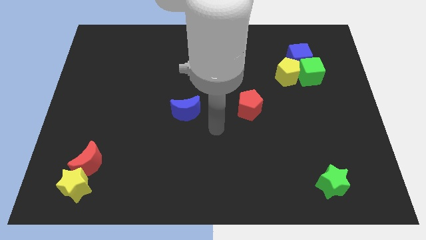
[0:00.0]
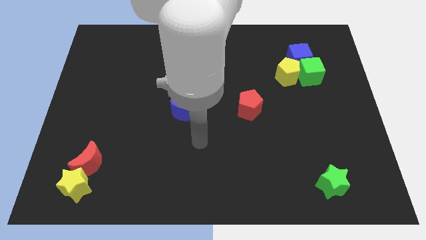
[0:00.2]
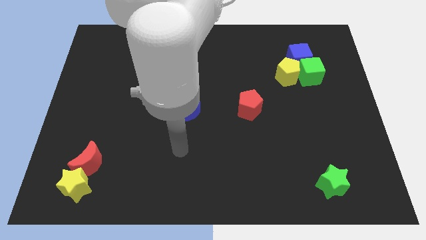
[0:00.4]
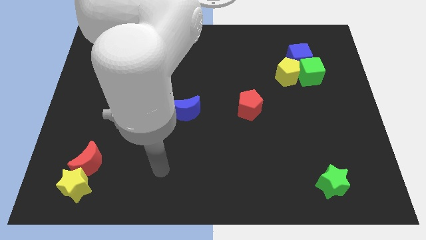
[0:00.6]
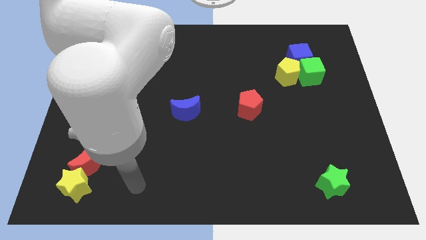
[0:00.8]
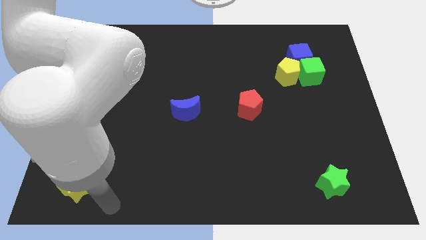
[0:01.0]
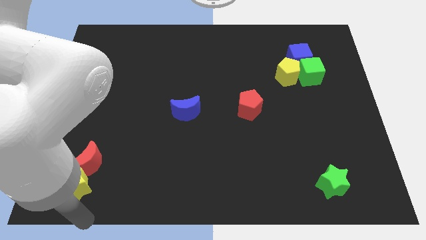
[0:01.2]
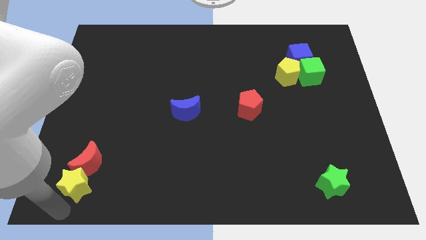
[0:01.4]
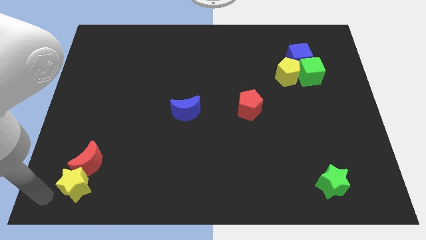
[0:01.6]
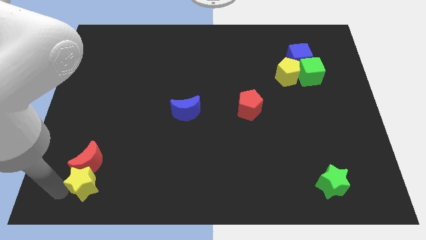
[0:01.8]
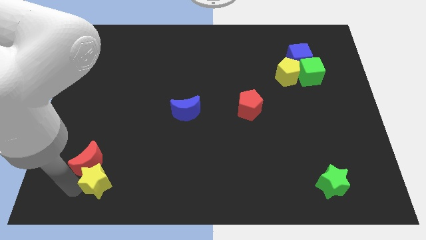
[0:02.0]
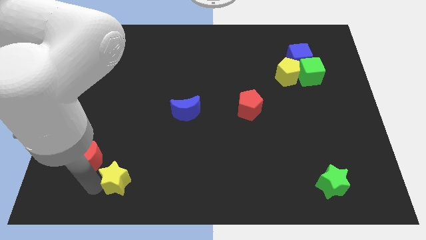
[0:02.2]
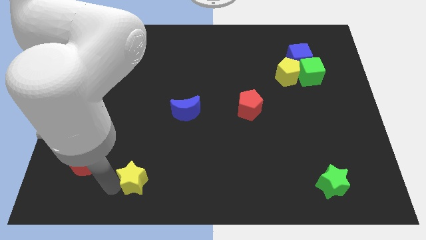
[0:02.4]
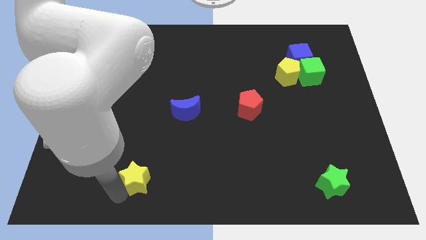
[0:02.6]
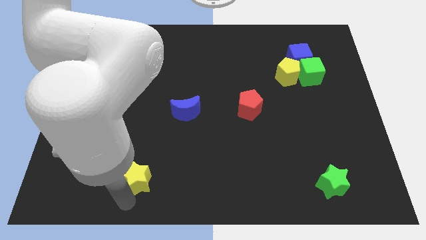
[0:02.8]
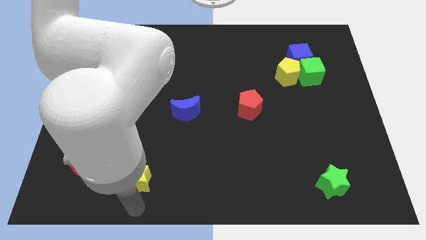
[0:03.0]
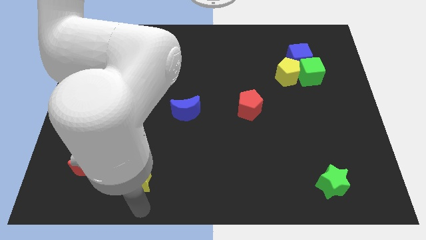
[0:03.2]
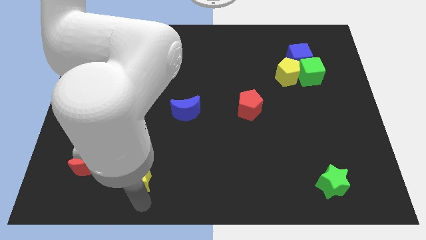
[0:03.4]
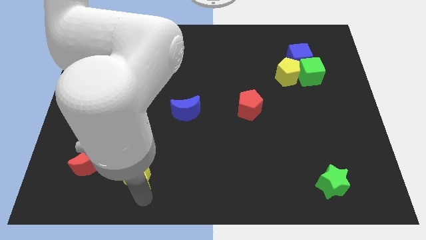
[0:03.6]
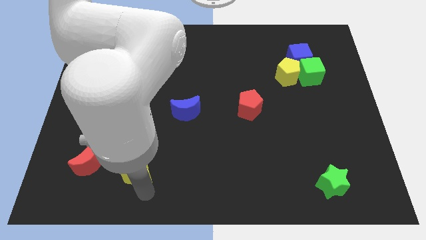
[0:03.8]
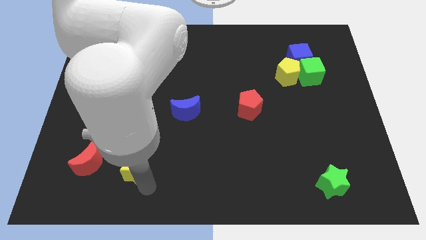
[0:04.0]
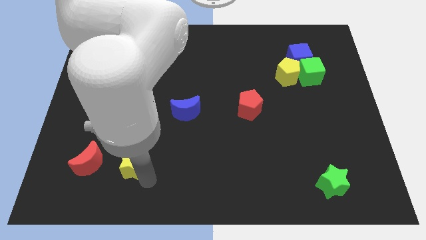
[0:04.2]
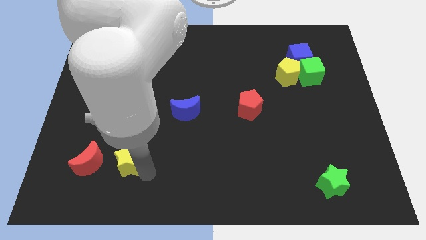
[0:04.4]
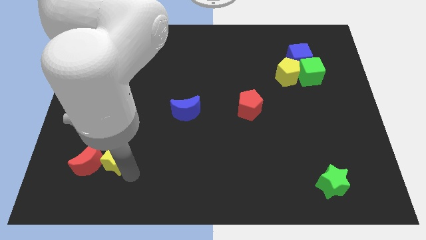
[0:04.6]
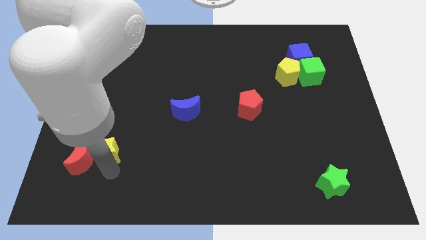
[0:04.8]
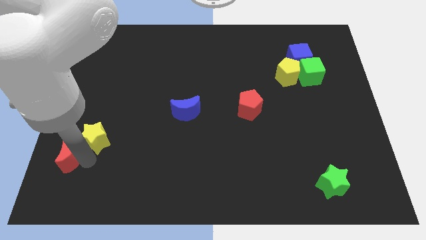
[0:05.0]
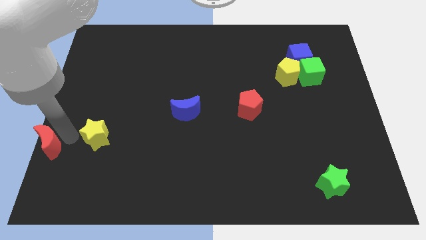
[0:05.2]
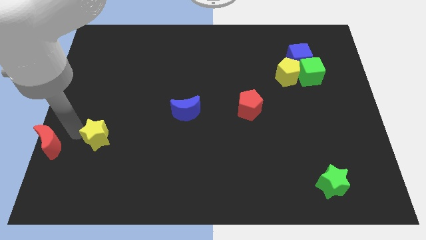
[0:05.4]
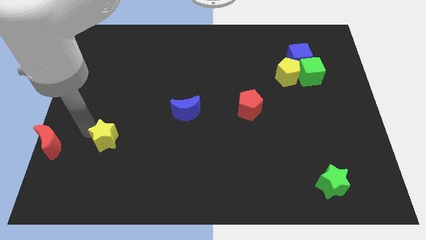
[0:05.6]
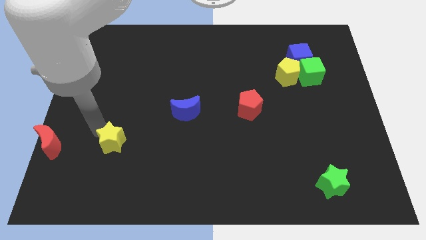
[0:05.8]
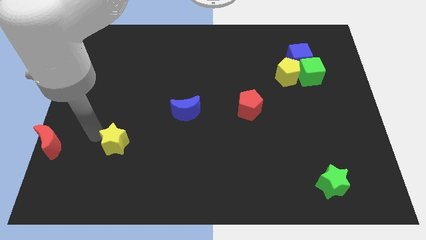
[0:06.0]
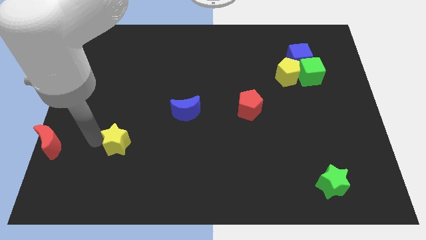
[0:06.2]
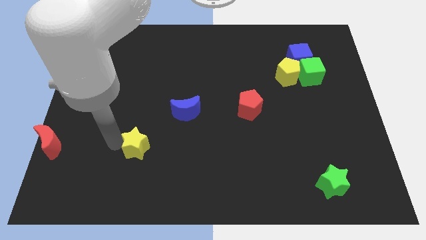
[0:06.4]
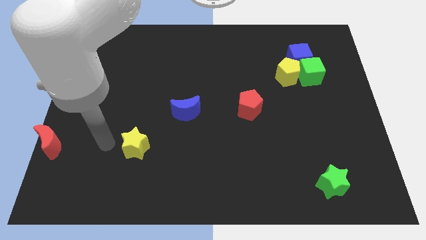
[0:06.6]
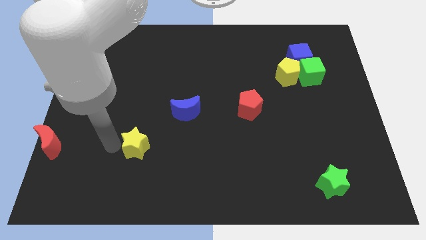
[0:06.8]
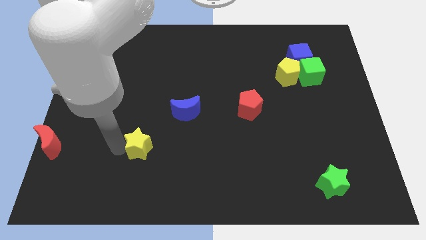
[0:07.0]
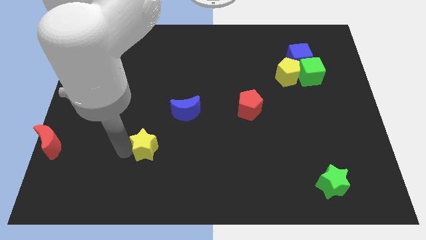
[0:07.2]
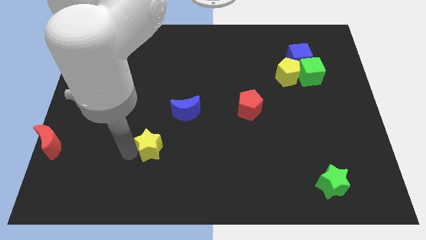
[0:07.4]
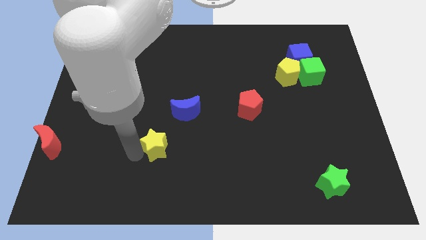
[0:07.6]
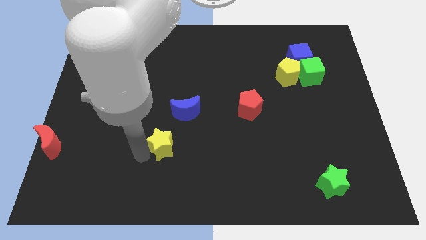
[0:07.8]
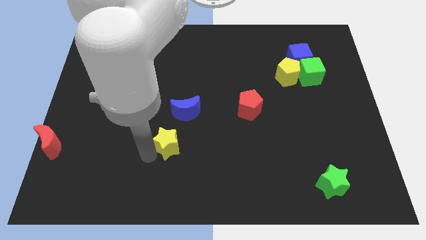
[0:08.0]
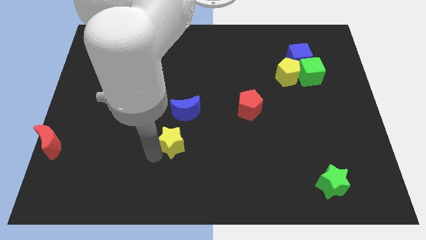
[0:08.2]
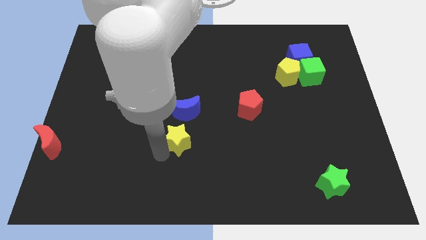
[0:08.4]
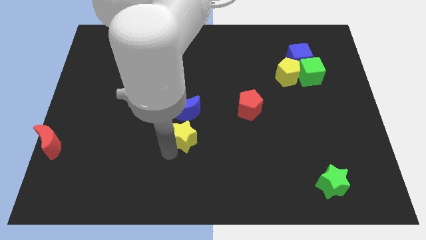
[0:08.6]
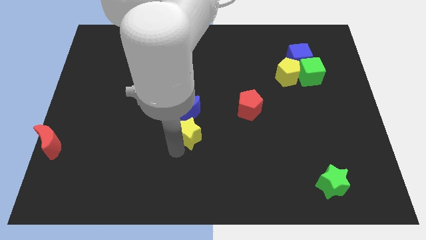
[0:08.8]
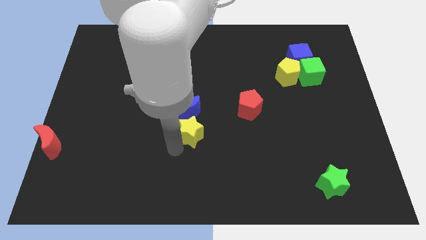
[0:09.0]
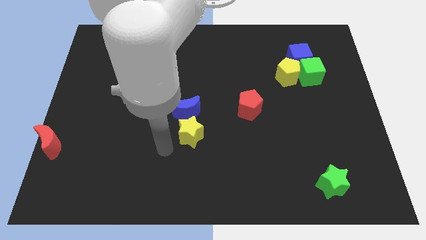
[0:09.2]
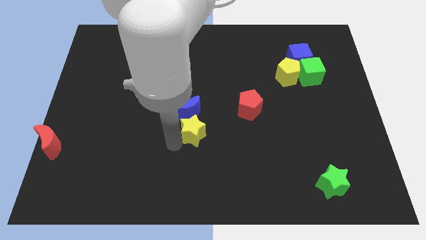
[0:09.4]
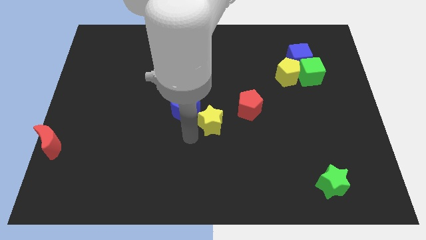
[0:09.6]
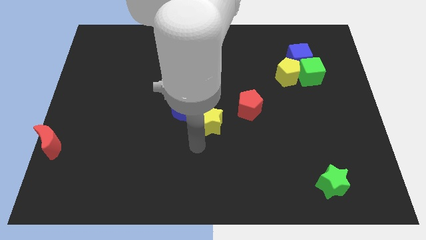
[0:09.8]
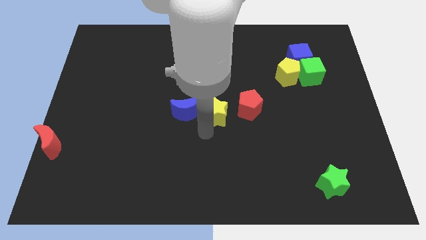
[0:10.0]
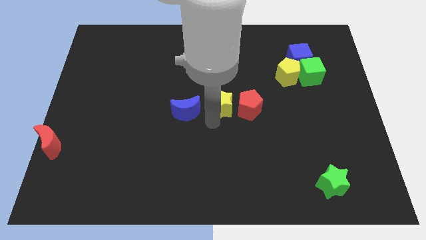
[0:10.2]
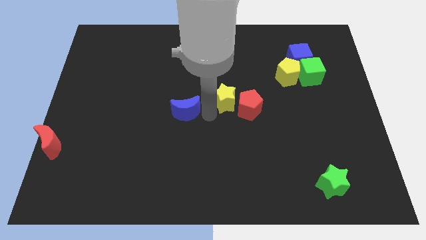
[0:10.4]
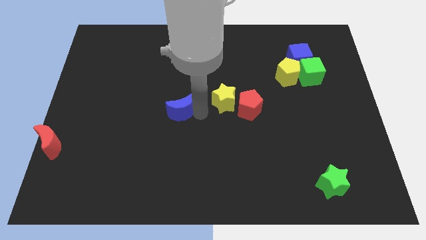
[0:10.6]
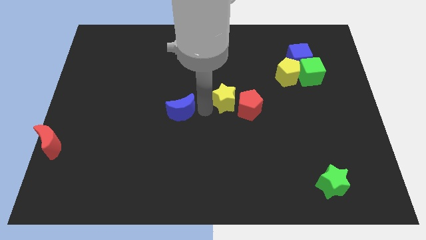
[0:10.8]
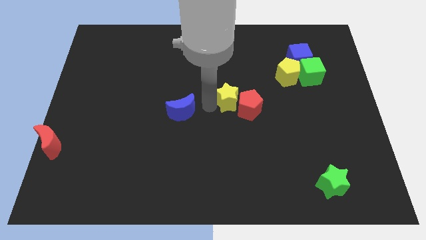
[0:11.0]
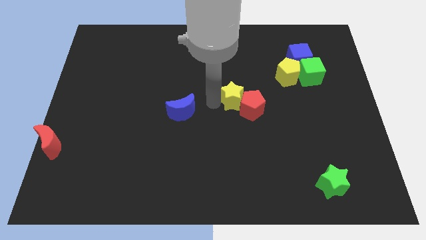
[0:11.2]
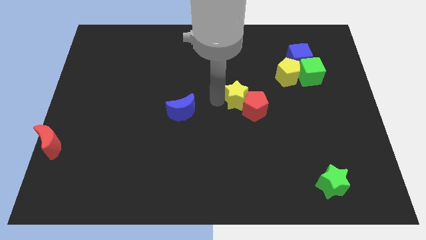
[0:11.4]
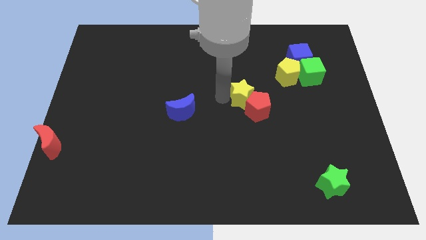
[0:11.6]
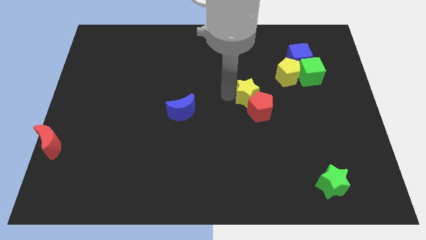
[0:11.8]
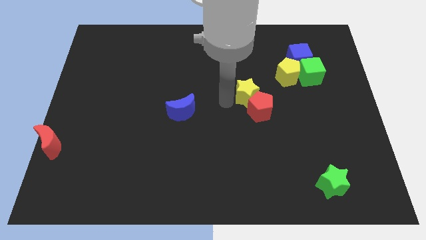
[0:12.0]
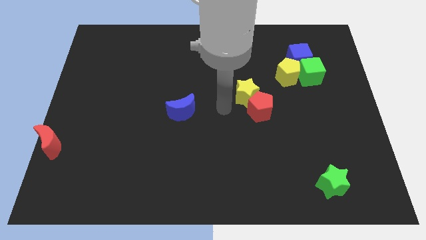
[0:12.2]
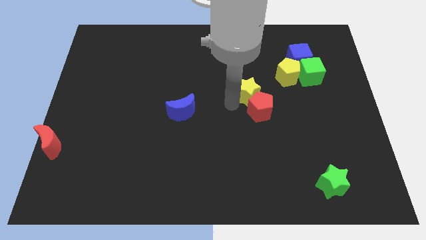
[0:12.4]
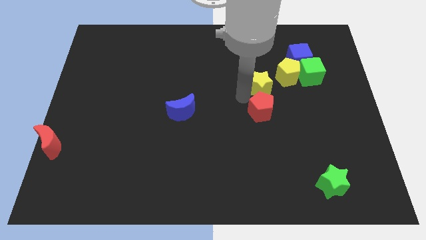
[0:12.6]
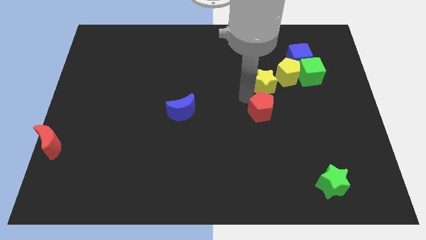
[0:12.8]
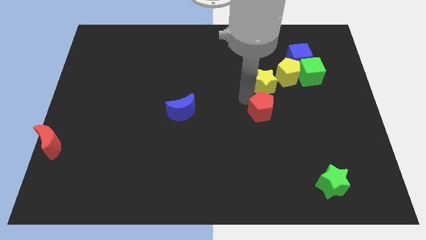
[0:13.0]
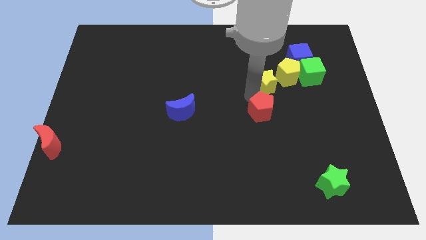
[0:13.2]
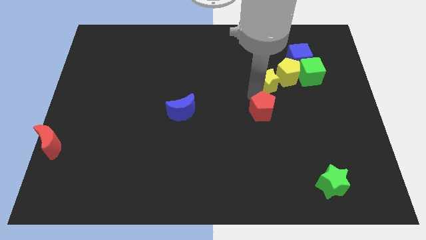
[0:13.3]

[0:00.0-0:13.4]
slide the yellow star to the bottom left side of the blue cube
